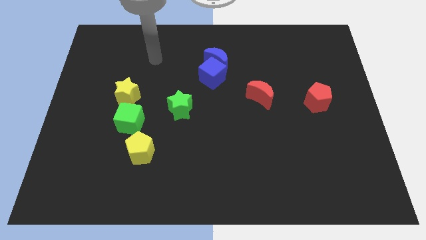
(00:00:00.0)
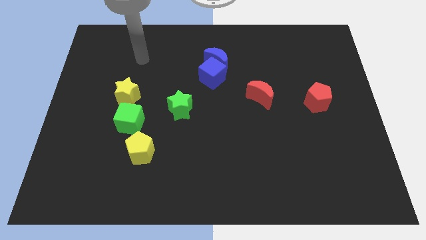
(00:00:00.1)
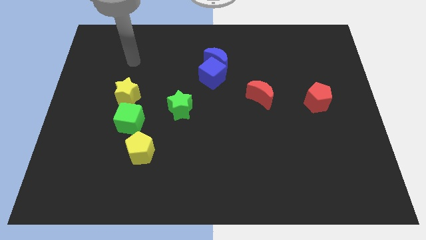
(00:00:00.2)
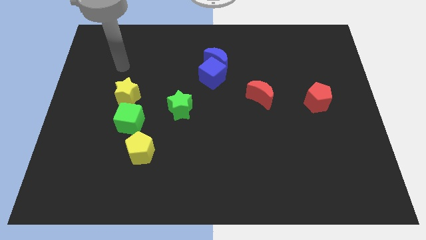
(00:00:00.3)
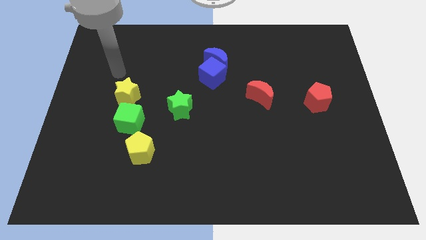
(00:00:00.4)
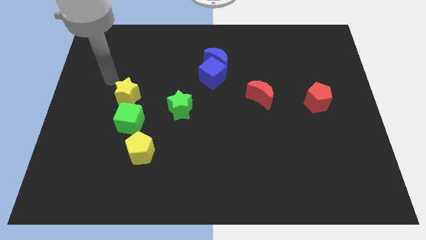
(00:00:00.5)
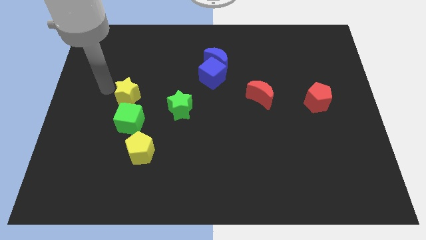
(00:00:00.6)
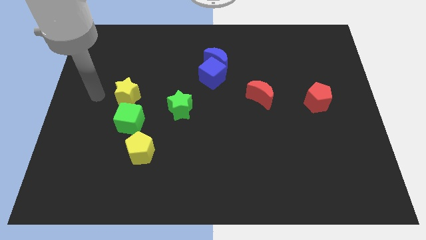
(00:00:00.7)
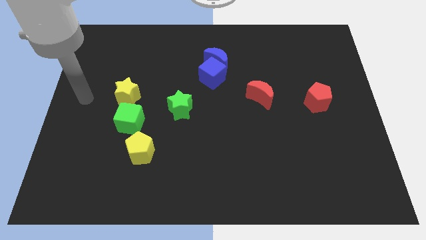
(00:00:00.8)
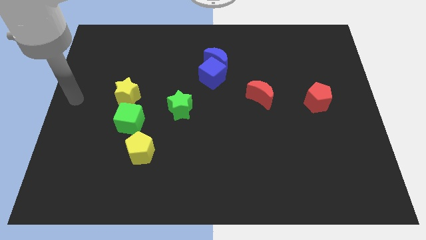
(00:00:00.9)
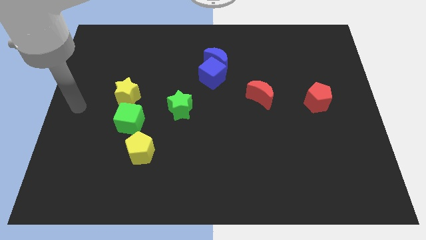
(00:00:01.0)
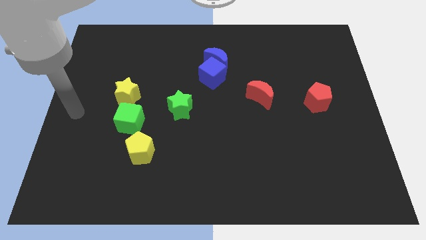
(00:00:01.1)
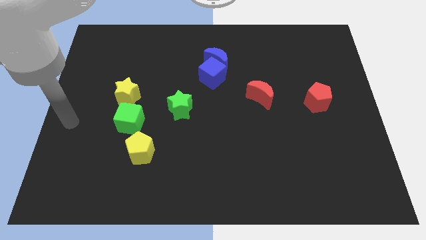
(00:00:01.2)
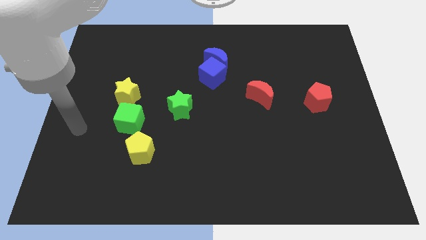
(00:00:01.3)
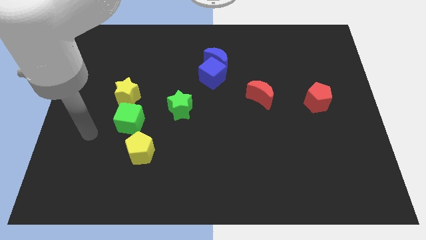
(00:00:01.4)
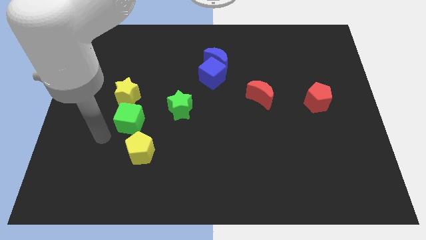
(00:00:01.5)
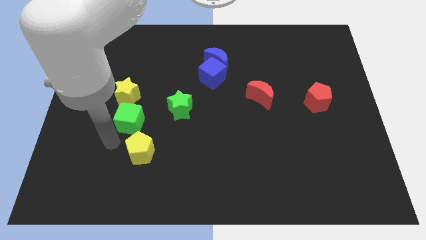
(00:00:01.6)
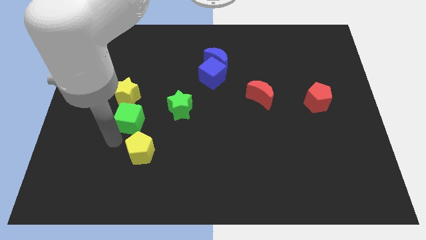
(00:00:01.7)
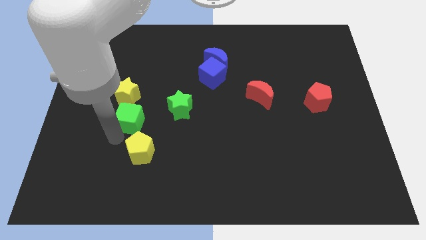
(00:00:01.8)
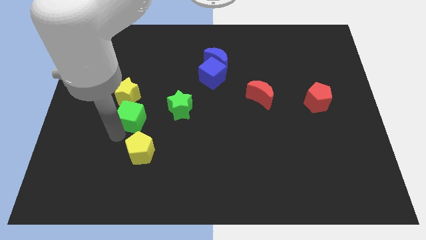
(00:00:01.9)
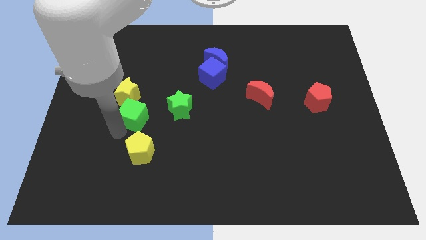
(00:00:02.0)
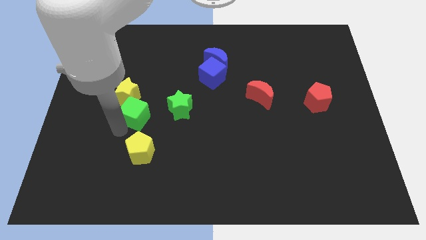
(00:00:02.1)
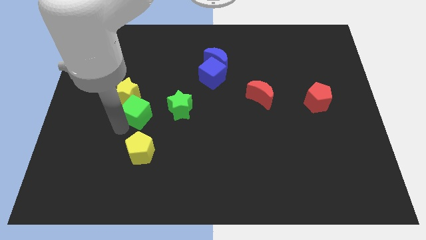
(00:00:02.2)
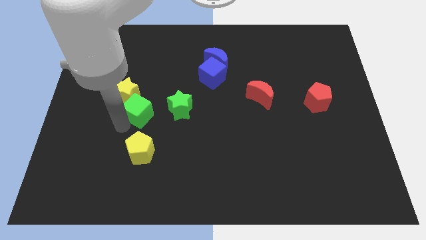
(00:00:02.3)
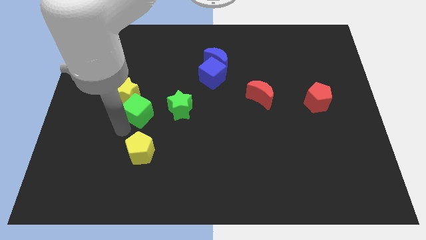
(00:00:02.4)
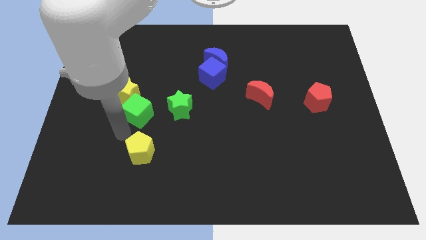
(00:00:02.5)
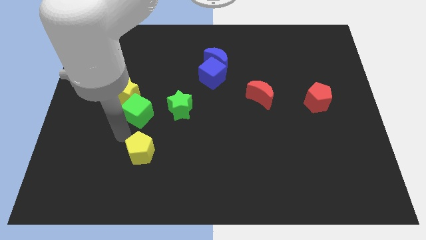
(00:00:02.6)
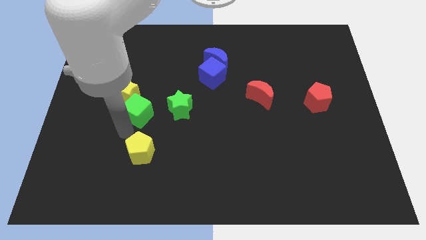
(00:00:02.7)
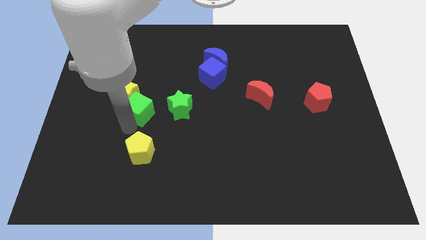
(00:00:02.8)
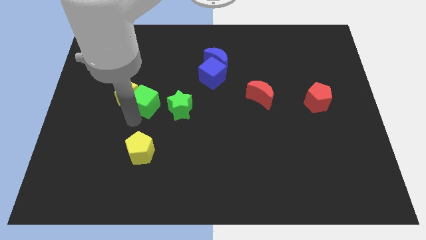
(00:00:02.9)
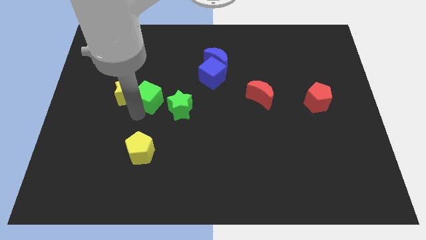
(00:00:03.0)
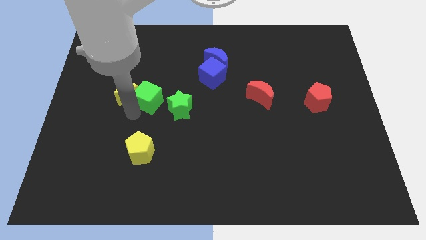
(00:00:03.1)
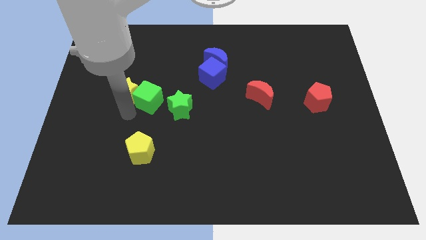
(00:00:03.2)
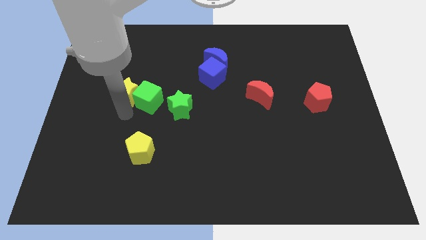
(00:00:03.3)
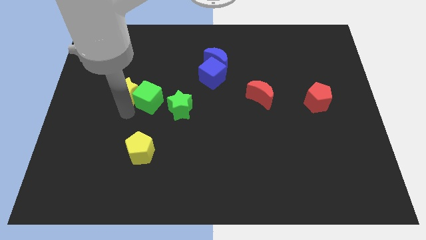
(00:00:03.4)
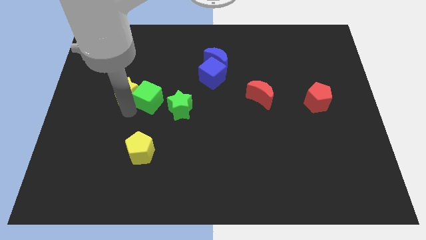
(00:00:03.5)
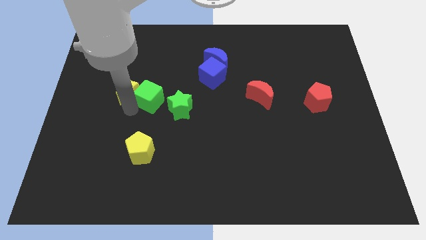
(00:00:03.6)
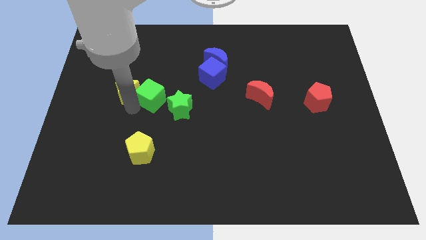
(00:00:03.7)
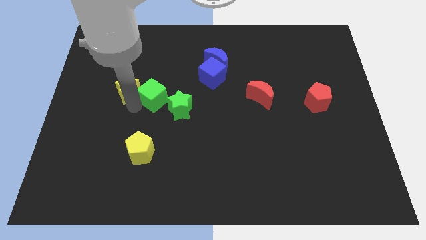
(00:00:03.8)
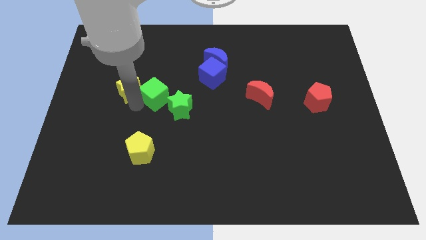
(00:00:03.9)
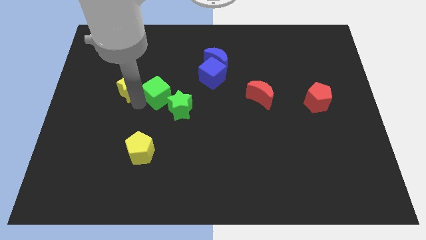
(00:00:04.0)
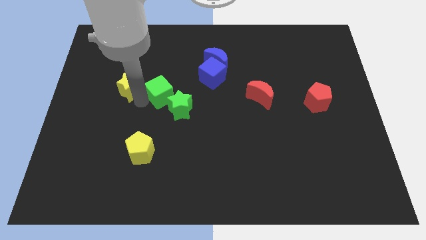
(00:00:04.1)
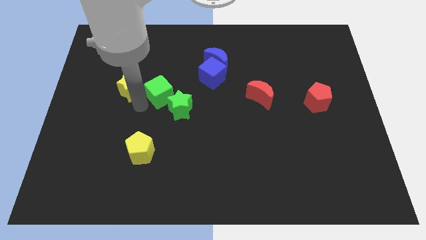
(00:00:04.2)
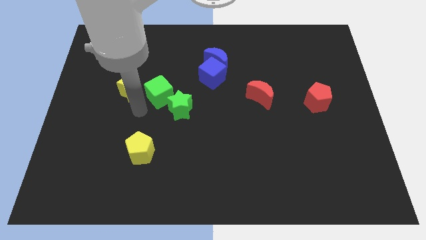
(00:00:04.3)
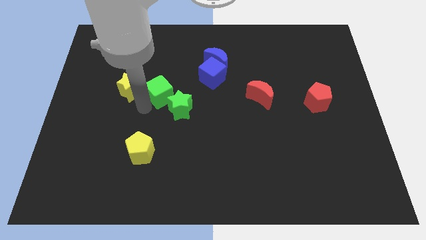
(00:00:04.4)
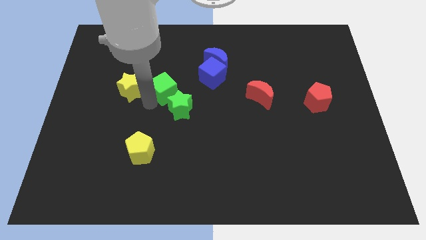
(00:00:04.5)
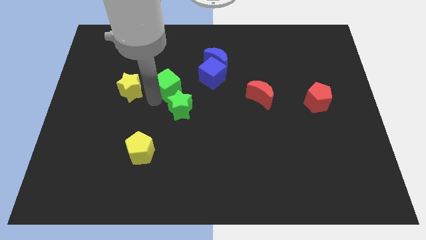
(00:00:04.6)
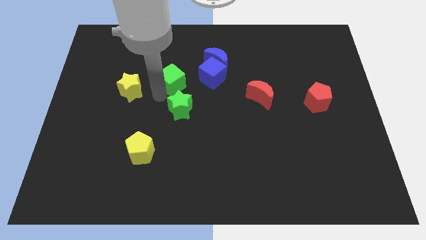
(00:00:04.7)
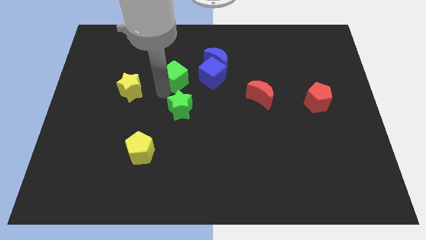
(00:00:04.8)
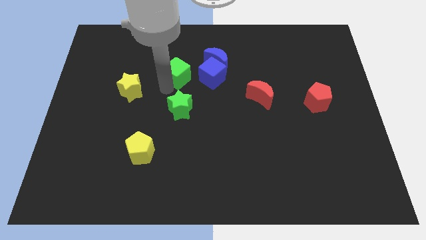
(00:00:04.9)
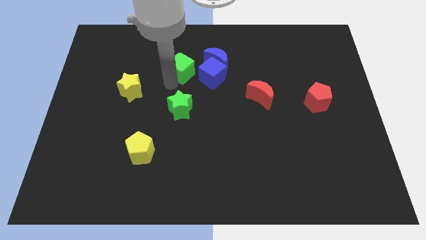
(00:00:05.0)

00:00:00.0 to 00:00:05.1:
slide the green cube diagonally up and to the left of the blue cube

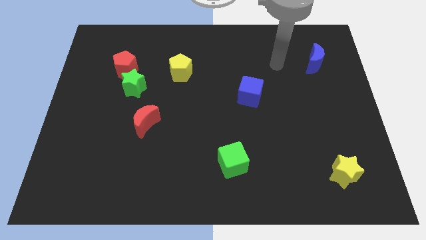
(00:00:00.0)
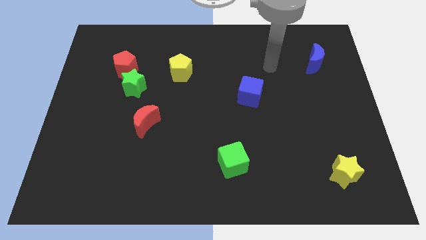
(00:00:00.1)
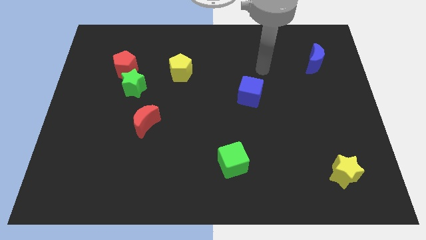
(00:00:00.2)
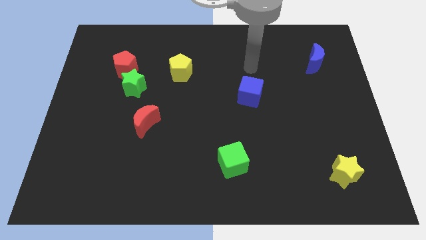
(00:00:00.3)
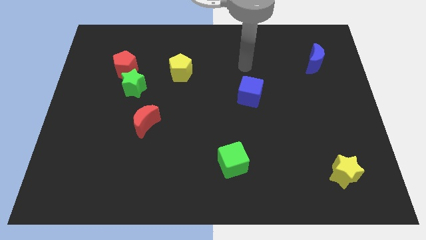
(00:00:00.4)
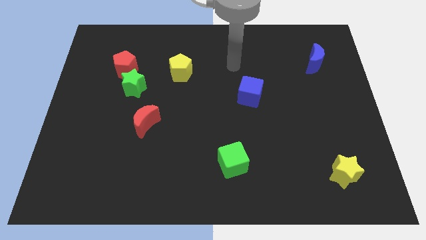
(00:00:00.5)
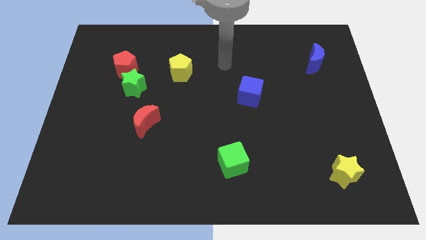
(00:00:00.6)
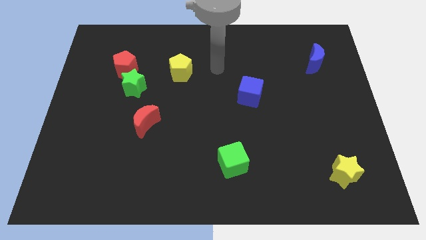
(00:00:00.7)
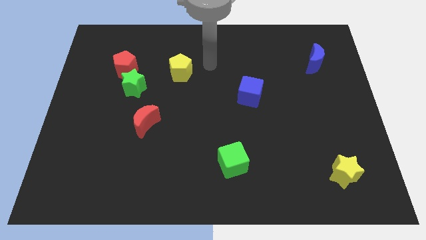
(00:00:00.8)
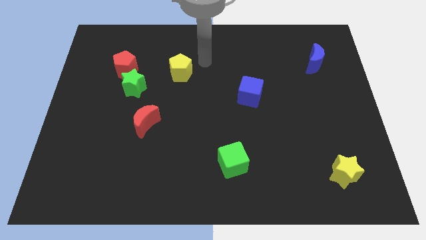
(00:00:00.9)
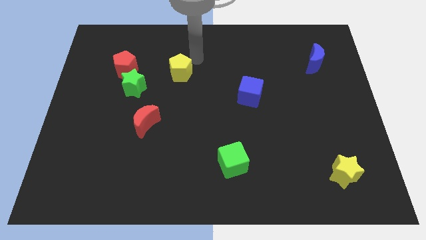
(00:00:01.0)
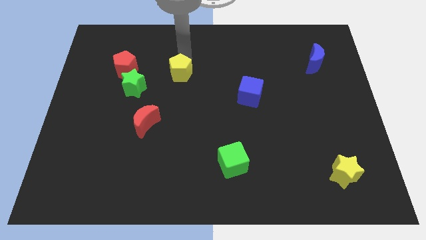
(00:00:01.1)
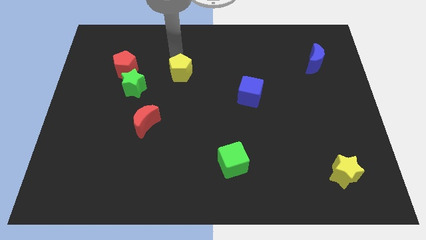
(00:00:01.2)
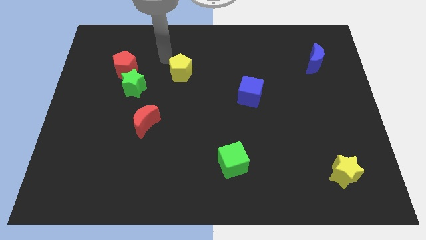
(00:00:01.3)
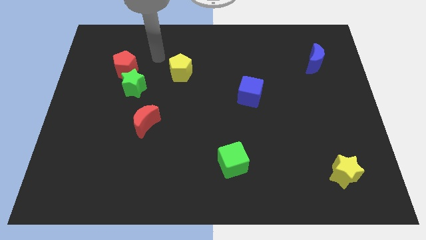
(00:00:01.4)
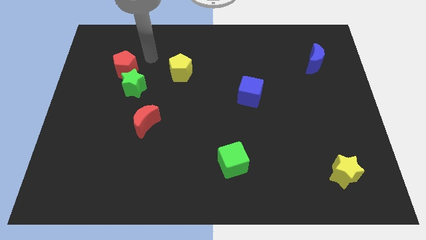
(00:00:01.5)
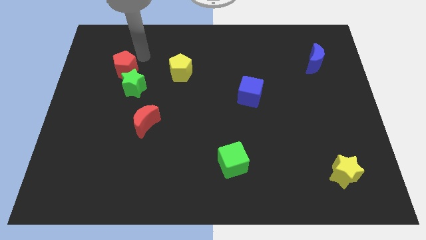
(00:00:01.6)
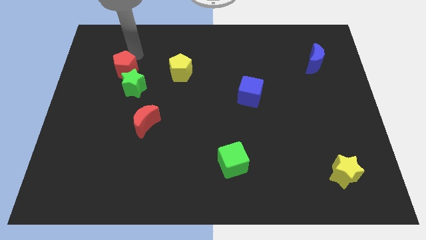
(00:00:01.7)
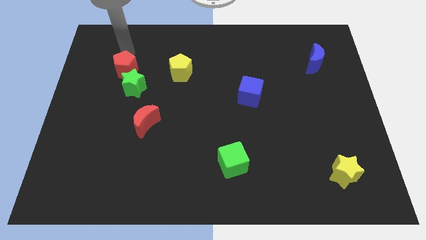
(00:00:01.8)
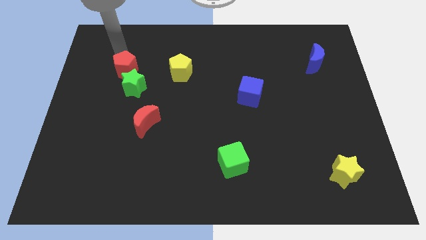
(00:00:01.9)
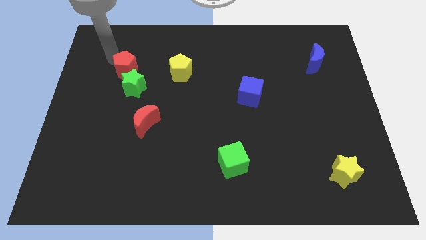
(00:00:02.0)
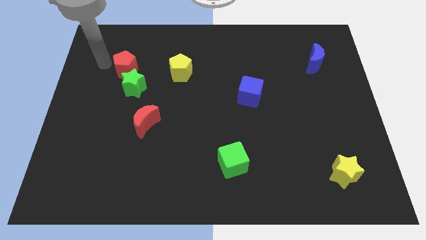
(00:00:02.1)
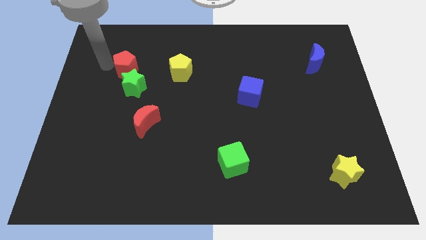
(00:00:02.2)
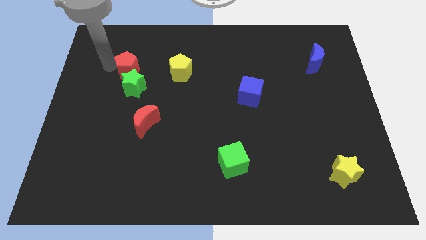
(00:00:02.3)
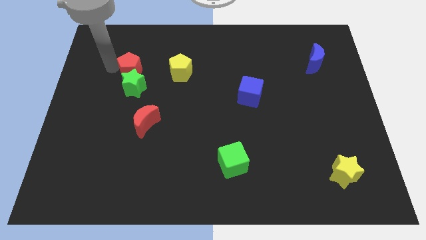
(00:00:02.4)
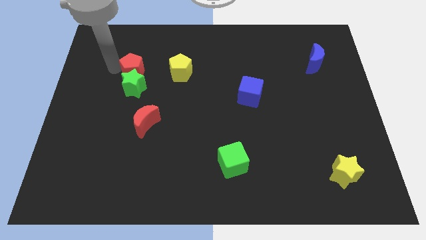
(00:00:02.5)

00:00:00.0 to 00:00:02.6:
slide the red pentagon diagonally up and to the right of the green star
